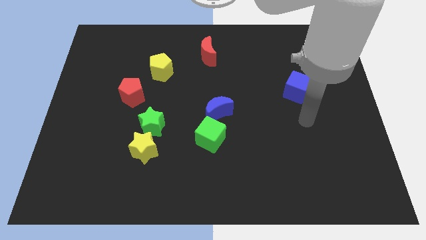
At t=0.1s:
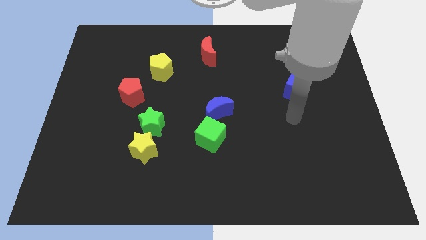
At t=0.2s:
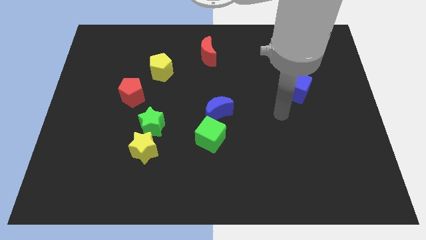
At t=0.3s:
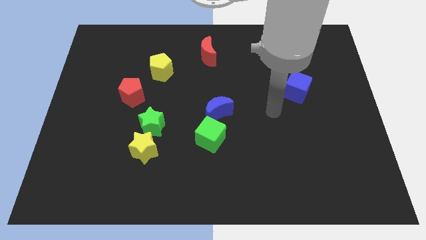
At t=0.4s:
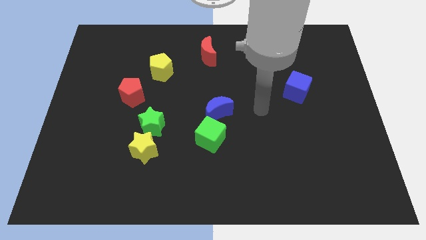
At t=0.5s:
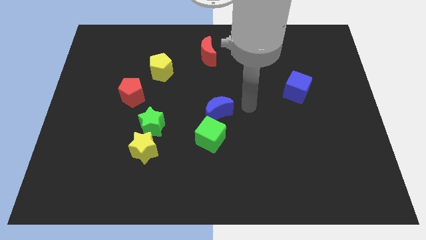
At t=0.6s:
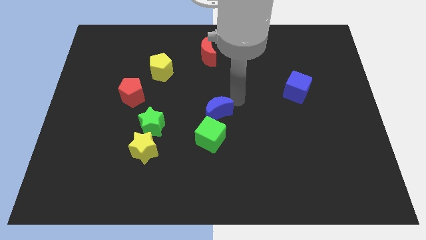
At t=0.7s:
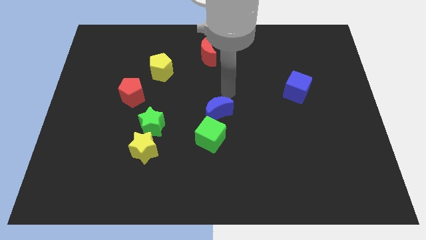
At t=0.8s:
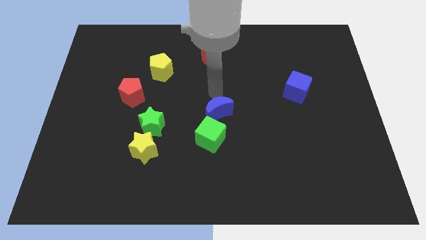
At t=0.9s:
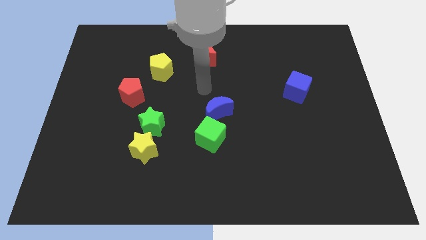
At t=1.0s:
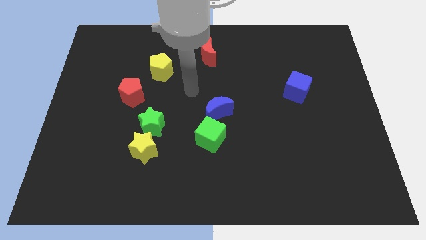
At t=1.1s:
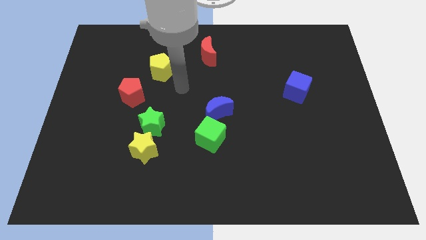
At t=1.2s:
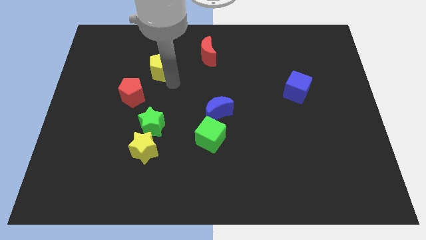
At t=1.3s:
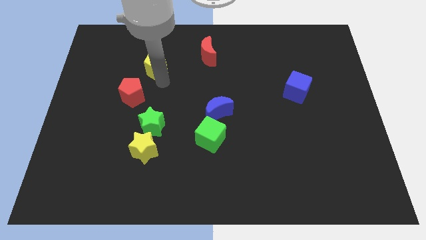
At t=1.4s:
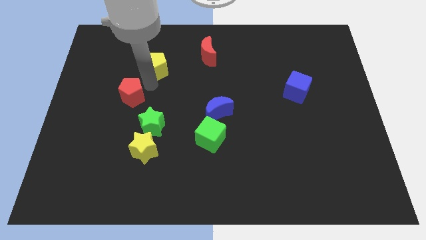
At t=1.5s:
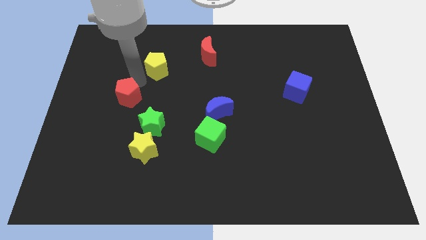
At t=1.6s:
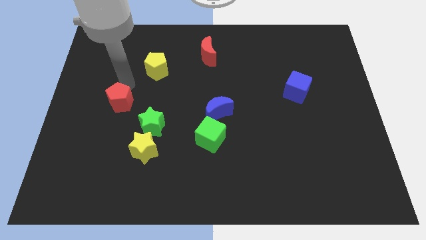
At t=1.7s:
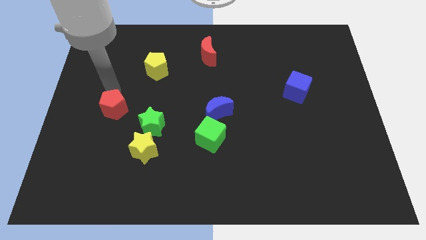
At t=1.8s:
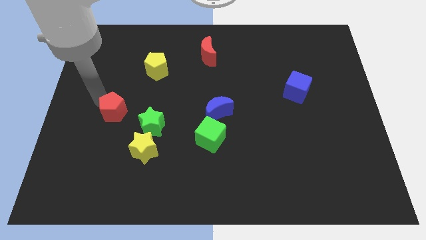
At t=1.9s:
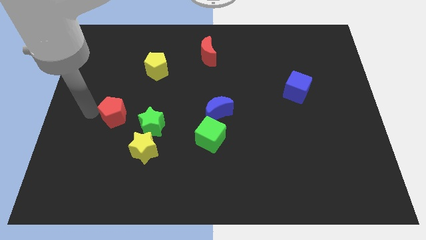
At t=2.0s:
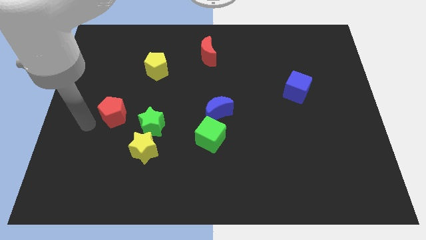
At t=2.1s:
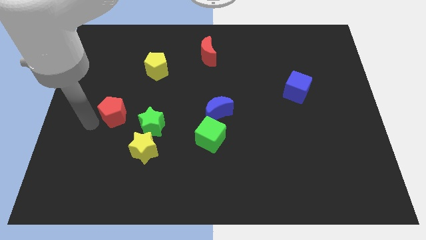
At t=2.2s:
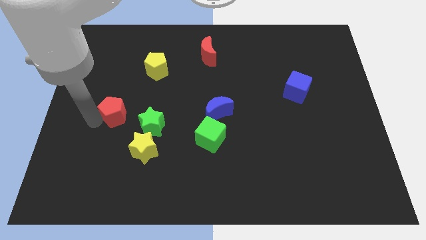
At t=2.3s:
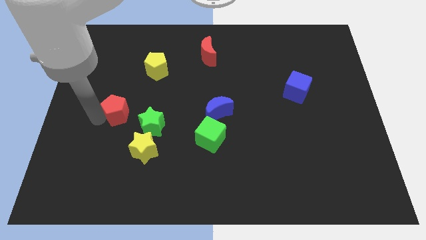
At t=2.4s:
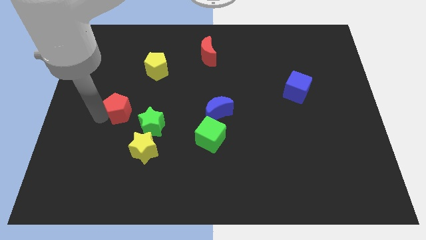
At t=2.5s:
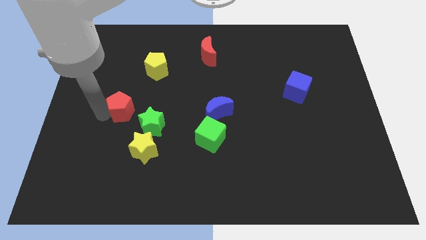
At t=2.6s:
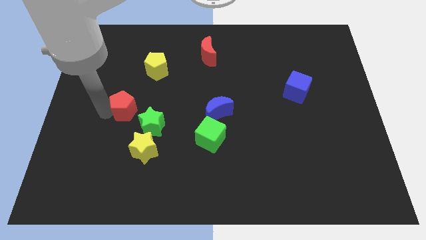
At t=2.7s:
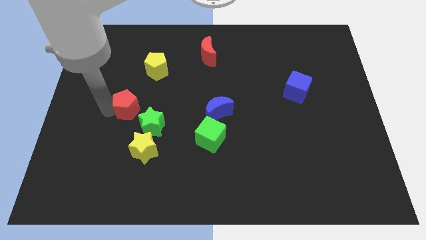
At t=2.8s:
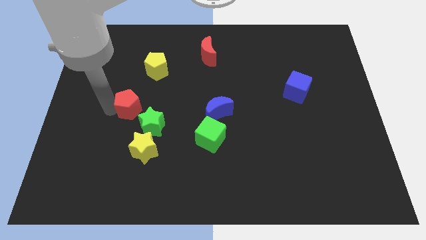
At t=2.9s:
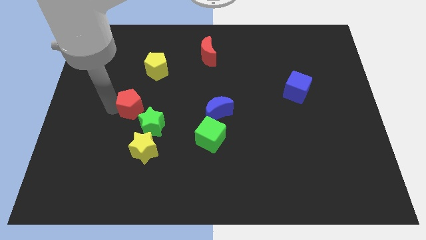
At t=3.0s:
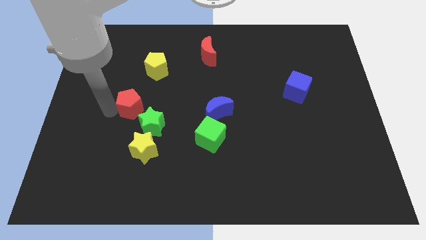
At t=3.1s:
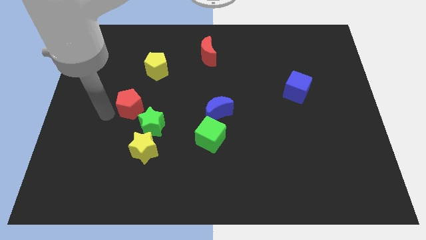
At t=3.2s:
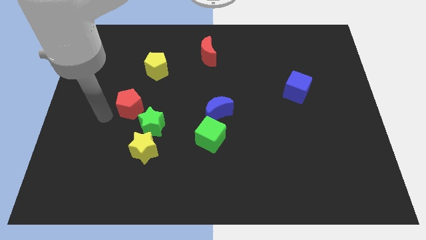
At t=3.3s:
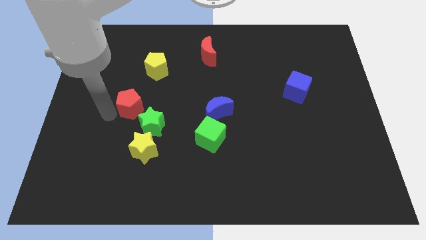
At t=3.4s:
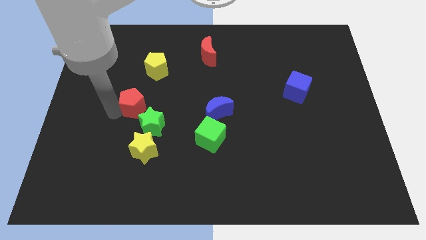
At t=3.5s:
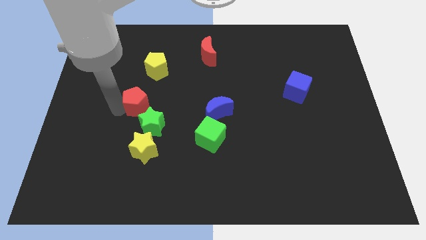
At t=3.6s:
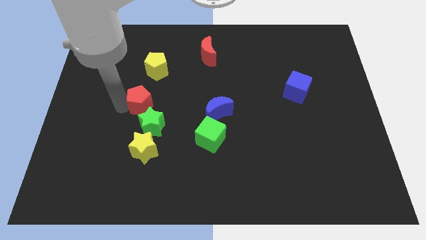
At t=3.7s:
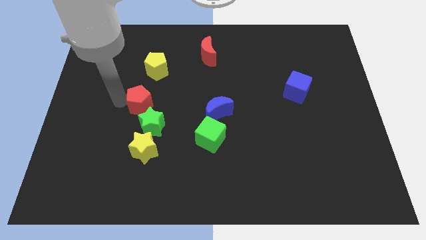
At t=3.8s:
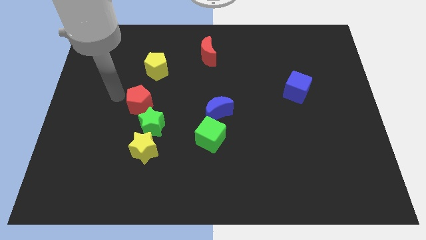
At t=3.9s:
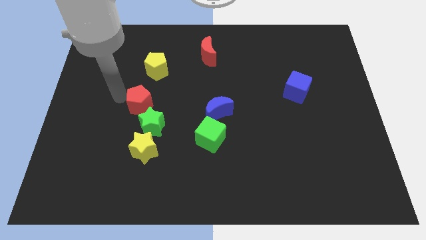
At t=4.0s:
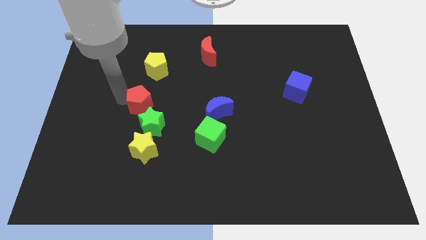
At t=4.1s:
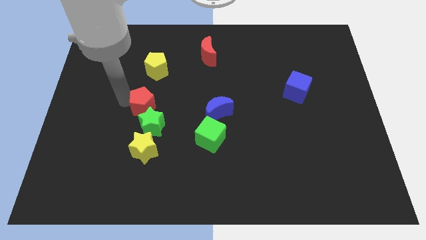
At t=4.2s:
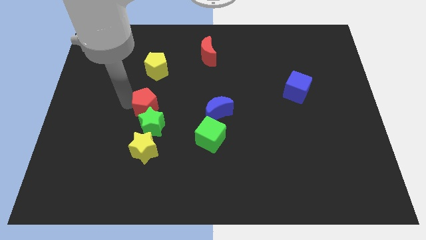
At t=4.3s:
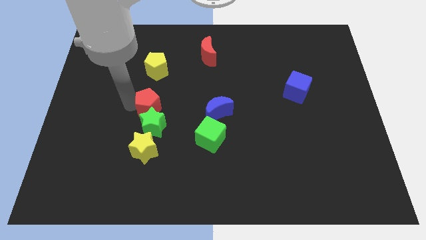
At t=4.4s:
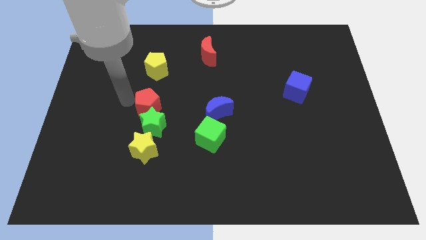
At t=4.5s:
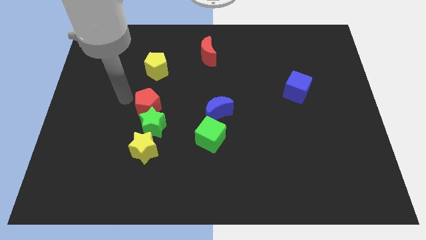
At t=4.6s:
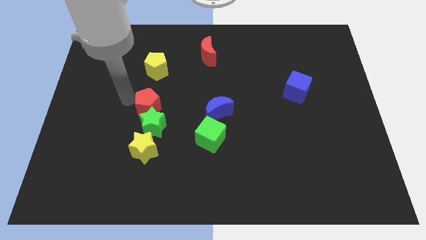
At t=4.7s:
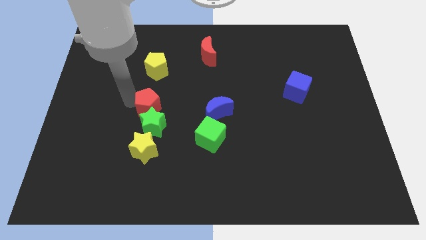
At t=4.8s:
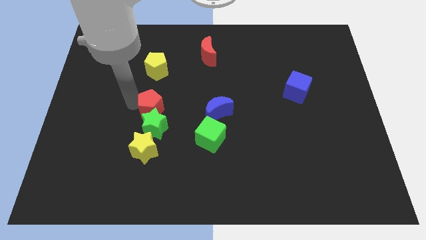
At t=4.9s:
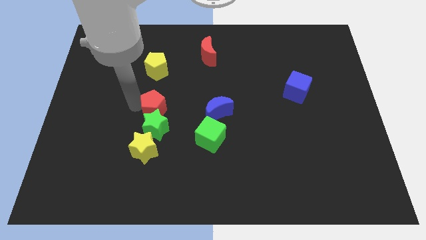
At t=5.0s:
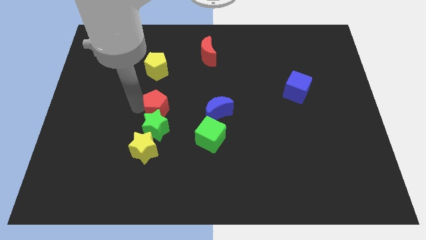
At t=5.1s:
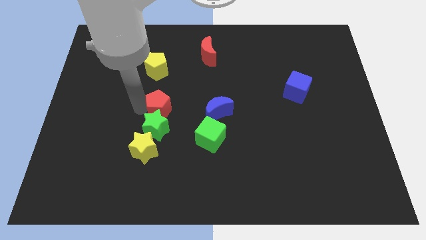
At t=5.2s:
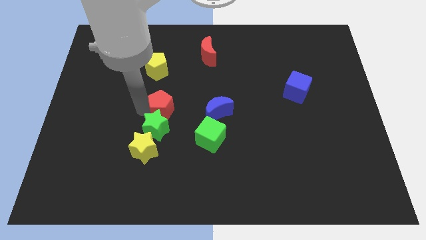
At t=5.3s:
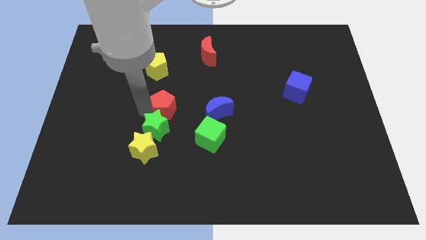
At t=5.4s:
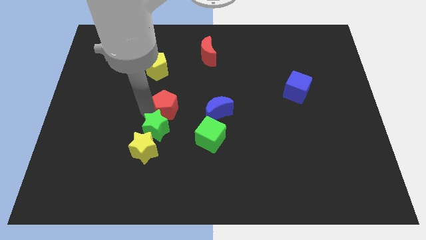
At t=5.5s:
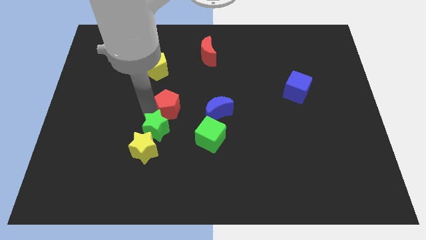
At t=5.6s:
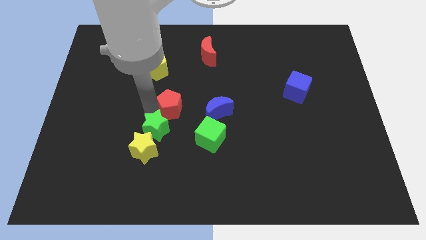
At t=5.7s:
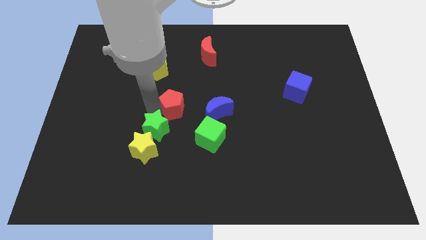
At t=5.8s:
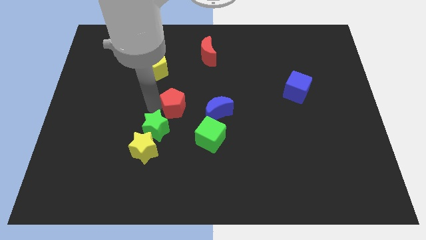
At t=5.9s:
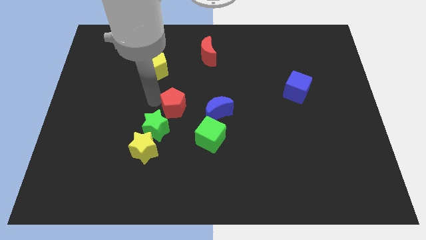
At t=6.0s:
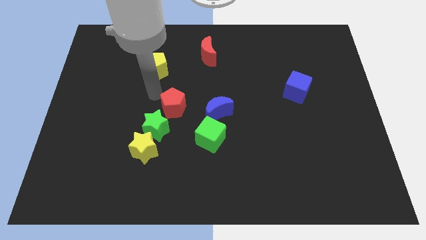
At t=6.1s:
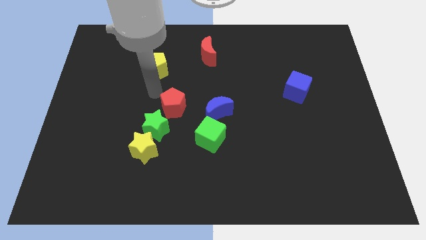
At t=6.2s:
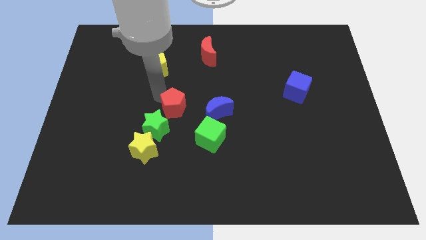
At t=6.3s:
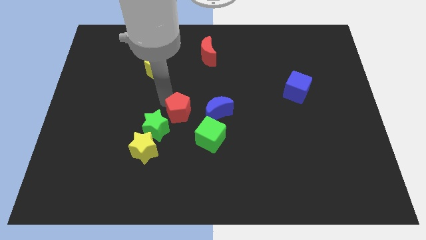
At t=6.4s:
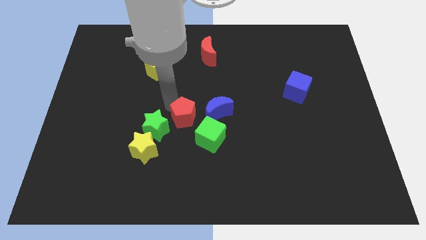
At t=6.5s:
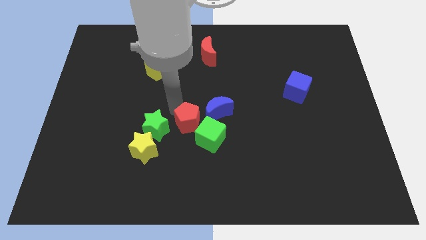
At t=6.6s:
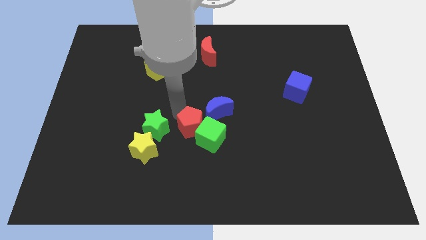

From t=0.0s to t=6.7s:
slide the red pentagon close to the green cube

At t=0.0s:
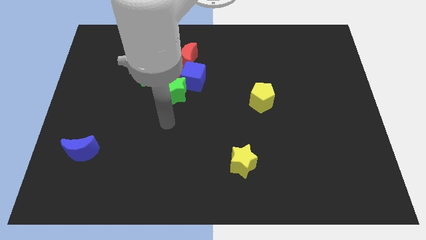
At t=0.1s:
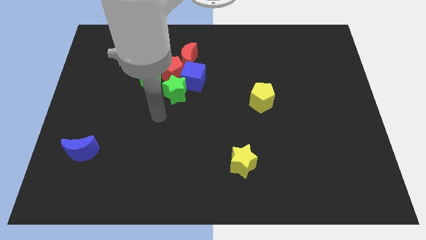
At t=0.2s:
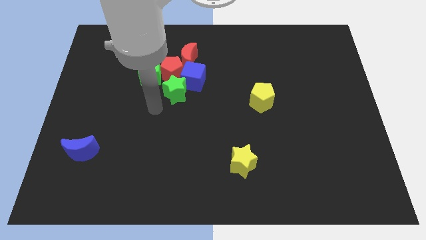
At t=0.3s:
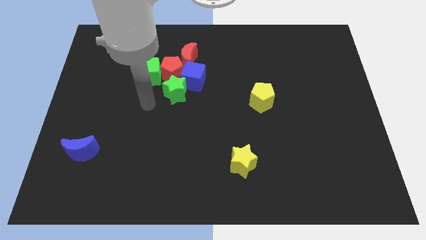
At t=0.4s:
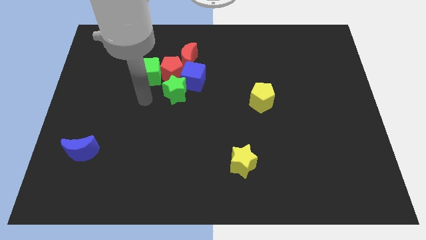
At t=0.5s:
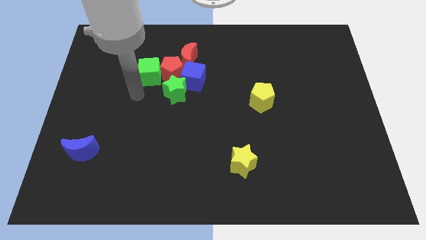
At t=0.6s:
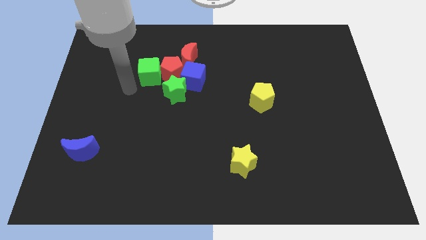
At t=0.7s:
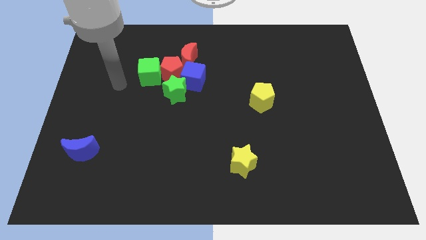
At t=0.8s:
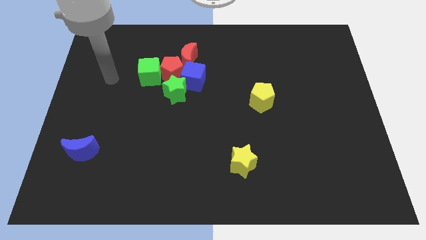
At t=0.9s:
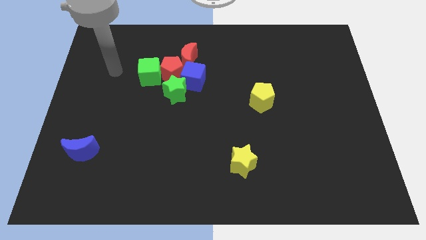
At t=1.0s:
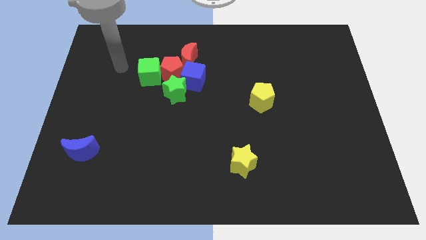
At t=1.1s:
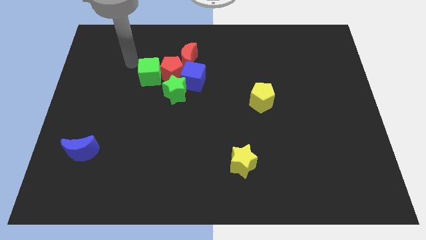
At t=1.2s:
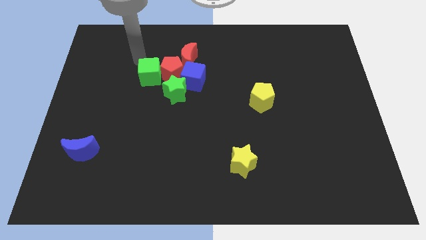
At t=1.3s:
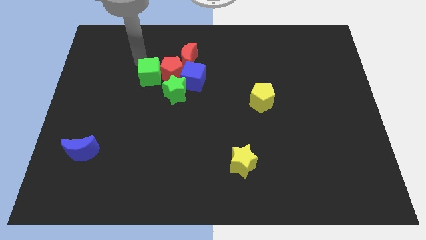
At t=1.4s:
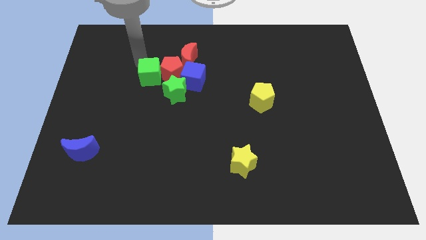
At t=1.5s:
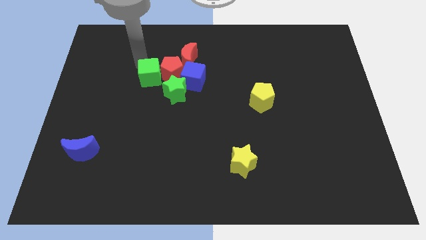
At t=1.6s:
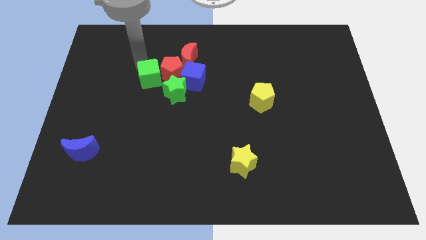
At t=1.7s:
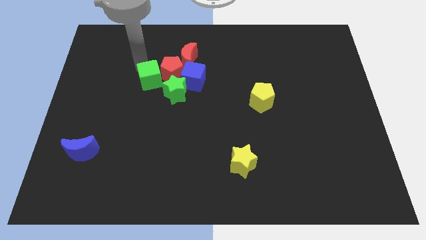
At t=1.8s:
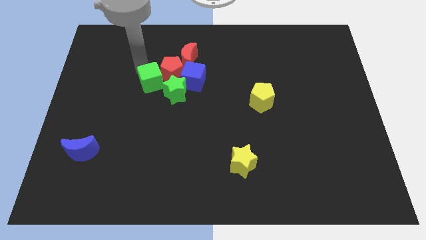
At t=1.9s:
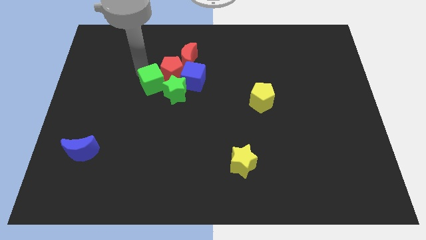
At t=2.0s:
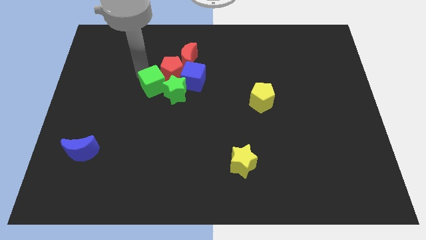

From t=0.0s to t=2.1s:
move the green cube close to the green star
